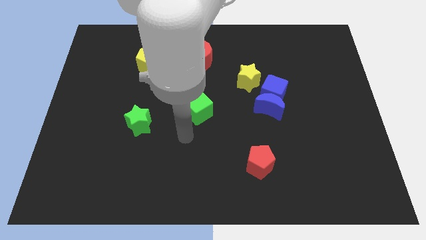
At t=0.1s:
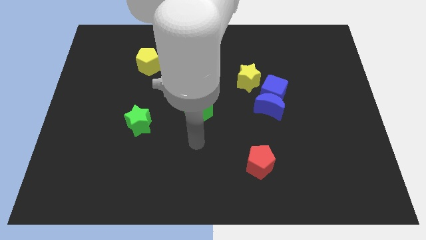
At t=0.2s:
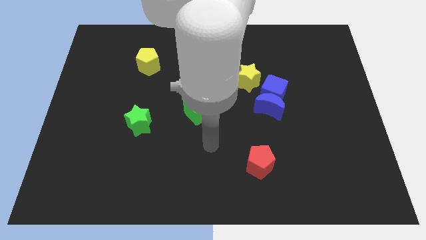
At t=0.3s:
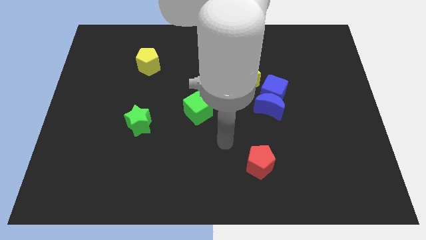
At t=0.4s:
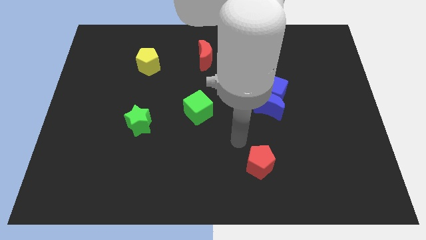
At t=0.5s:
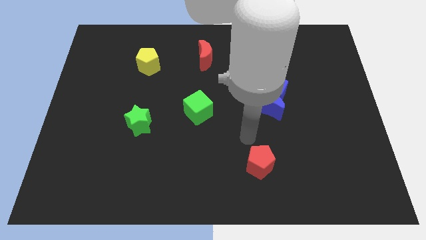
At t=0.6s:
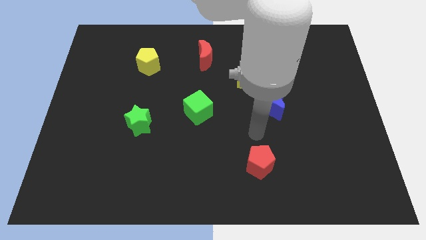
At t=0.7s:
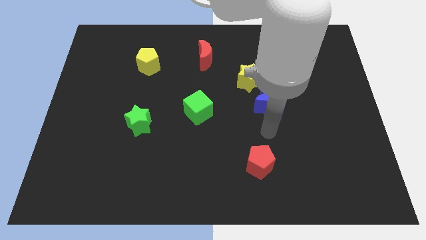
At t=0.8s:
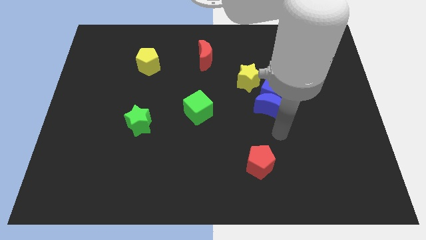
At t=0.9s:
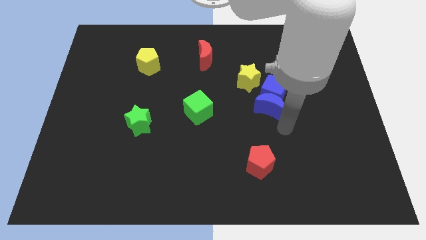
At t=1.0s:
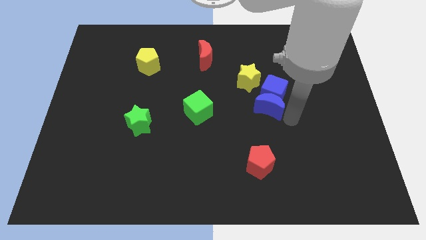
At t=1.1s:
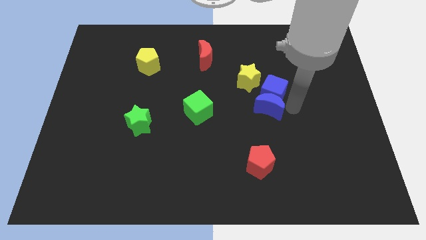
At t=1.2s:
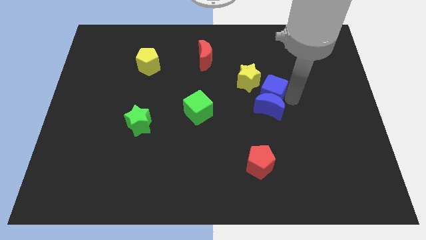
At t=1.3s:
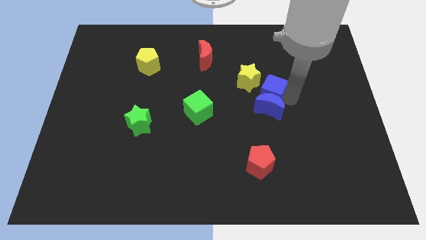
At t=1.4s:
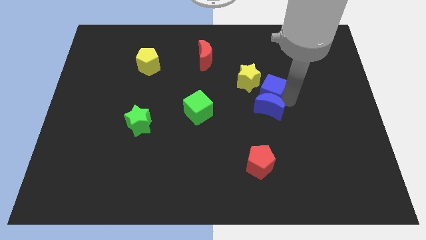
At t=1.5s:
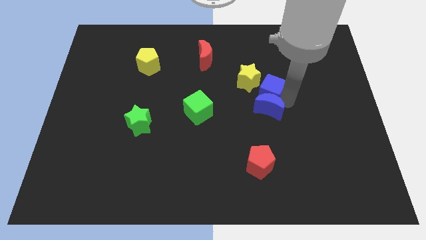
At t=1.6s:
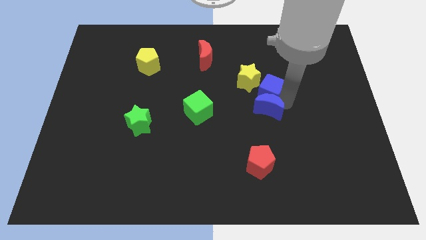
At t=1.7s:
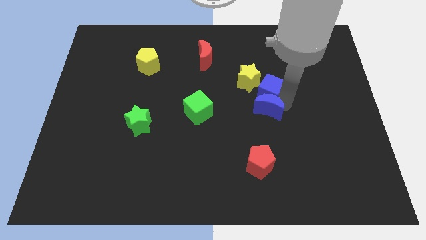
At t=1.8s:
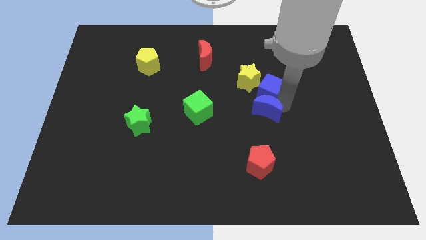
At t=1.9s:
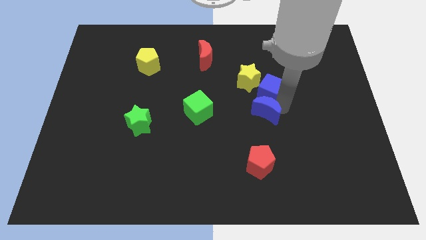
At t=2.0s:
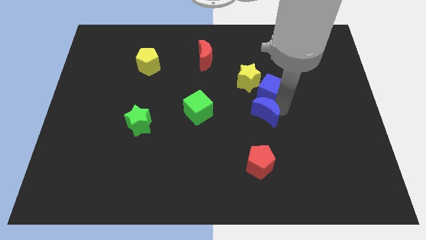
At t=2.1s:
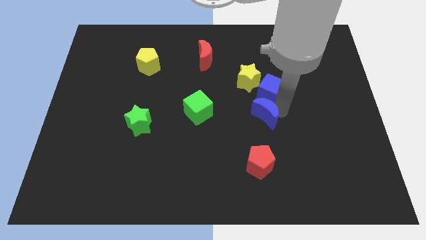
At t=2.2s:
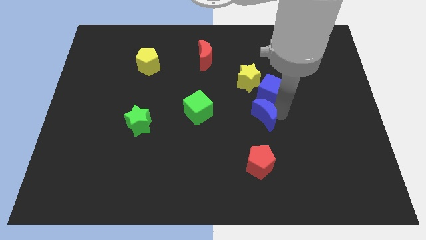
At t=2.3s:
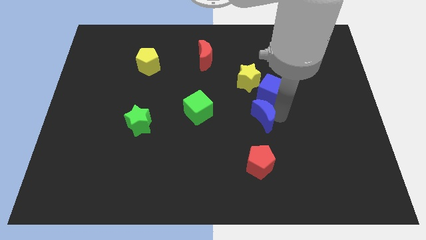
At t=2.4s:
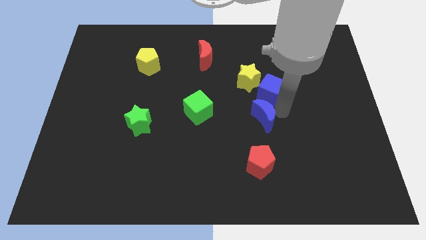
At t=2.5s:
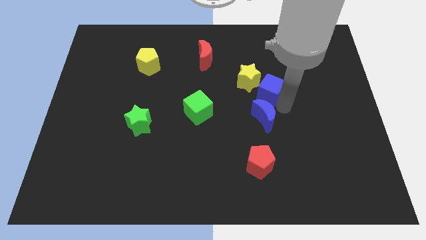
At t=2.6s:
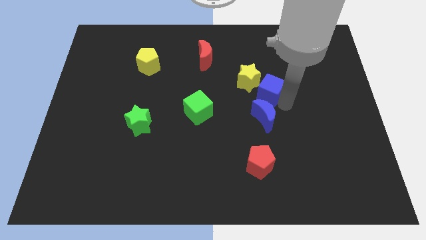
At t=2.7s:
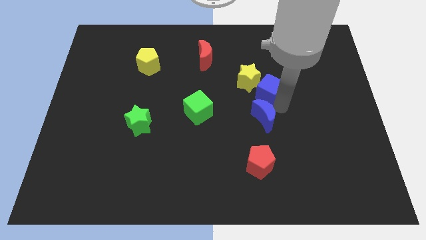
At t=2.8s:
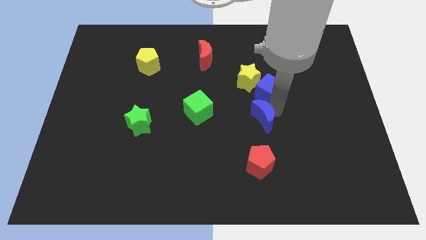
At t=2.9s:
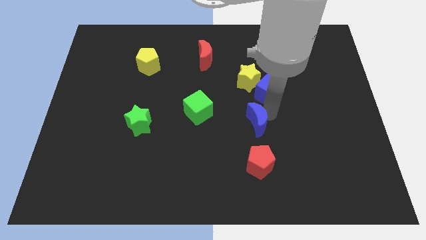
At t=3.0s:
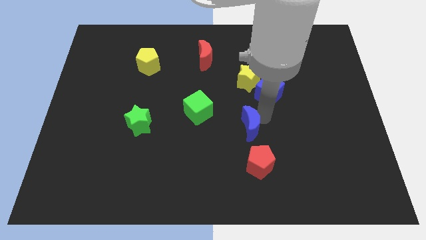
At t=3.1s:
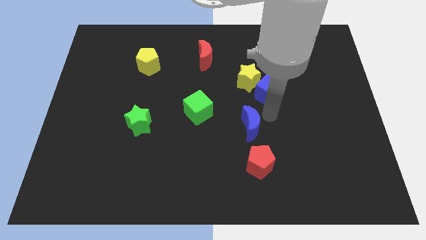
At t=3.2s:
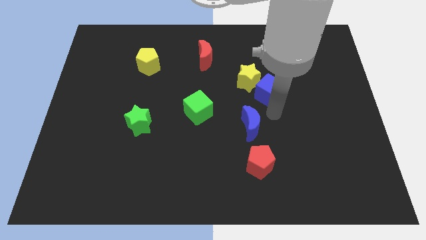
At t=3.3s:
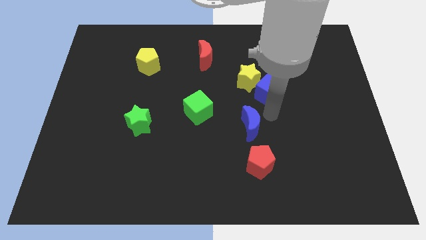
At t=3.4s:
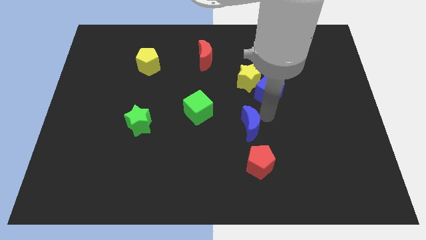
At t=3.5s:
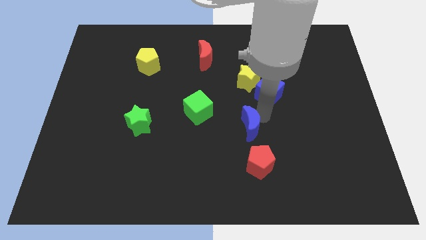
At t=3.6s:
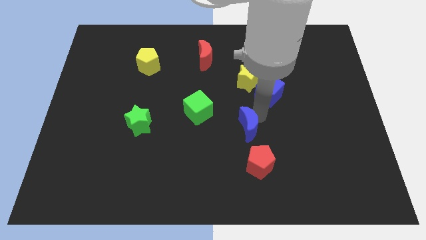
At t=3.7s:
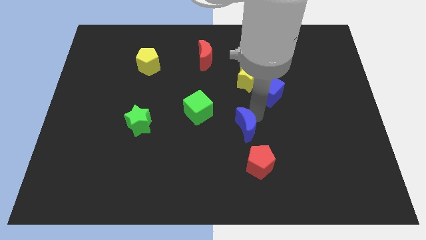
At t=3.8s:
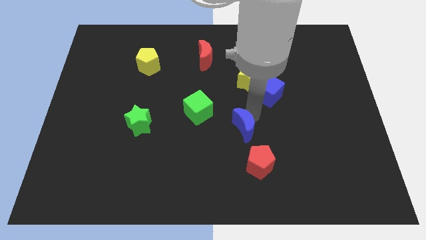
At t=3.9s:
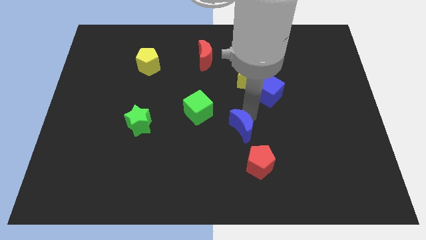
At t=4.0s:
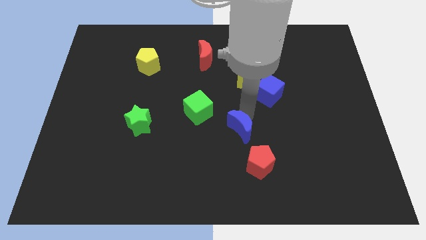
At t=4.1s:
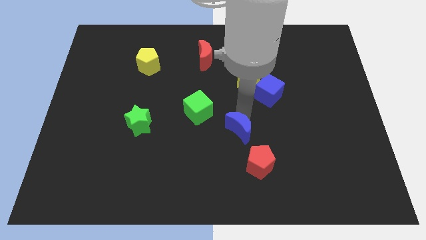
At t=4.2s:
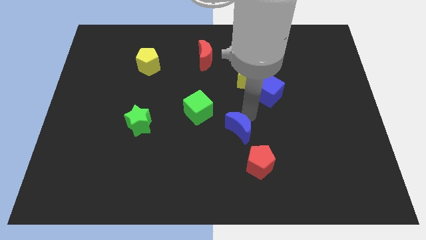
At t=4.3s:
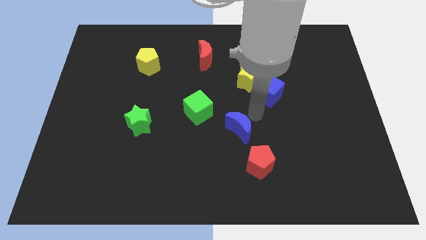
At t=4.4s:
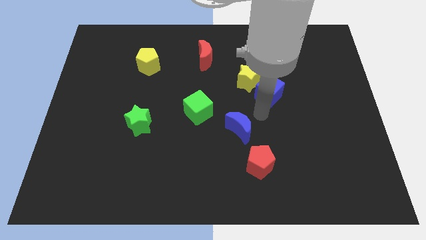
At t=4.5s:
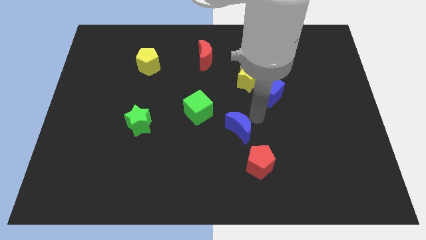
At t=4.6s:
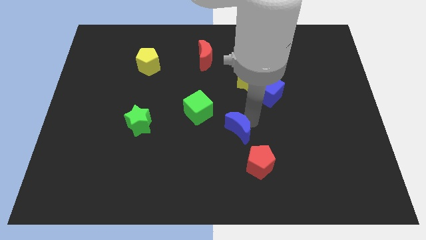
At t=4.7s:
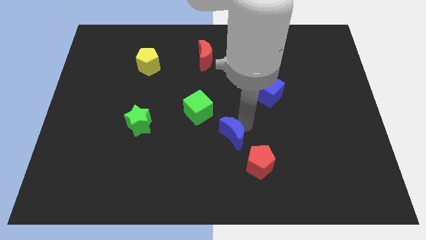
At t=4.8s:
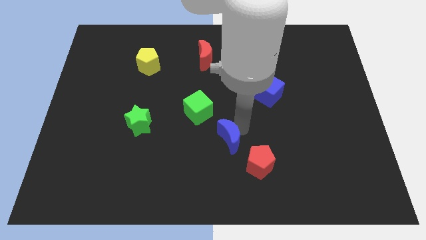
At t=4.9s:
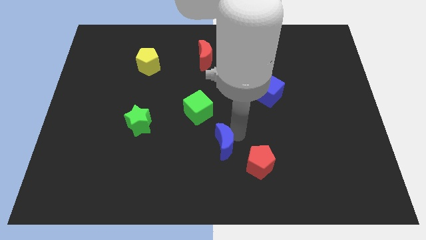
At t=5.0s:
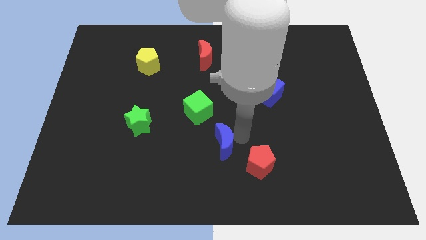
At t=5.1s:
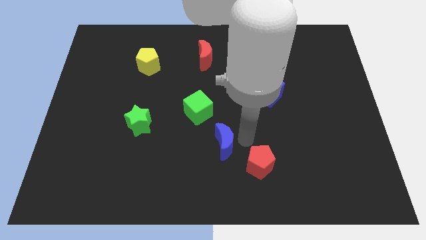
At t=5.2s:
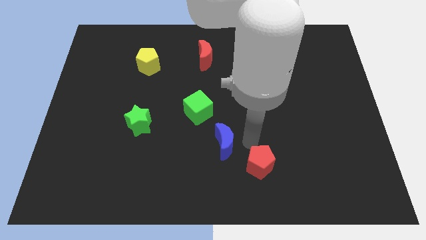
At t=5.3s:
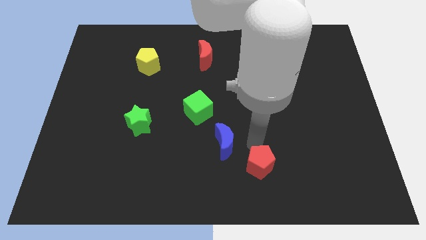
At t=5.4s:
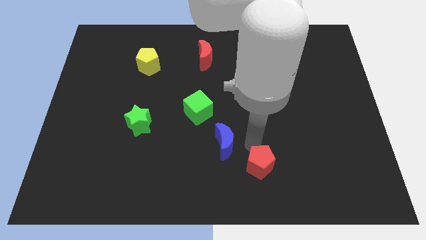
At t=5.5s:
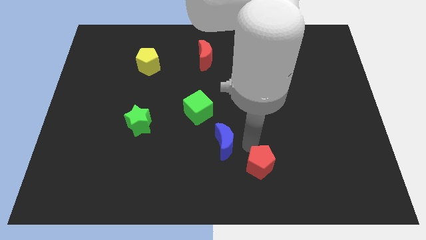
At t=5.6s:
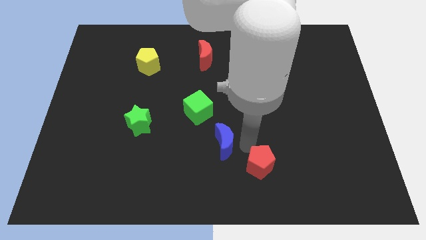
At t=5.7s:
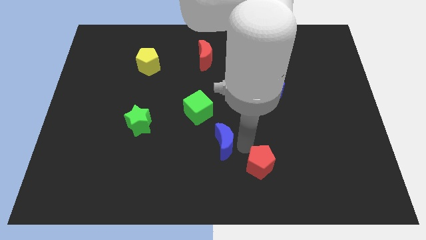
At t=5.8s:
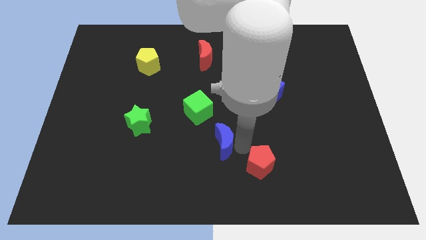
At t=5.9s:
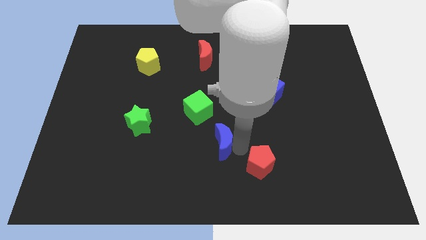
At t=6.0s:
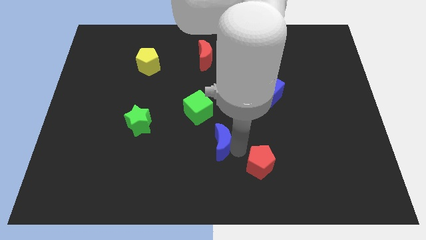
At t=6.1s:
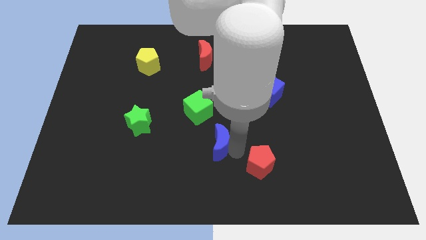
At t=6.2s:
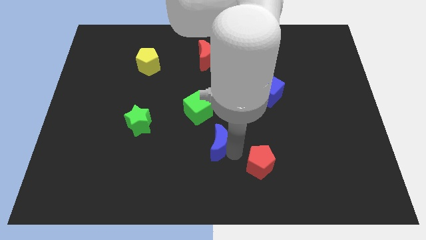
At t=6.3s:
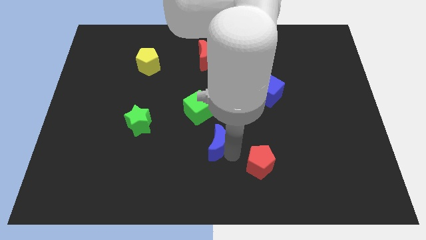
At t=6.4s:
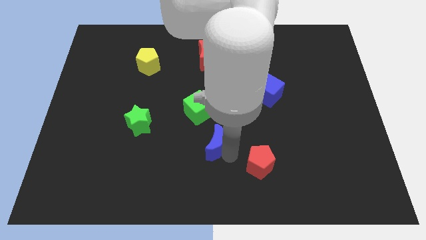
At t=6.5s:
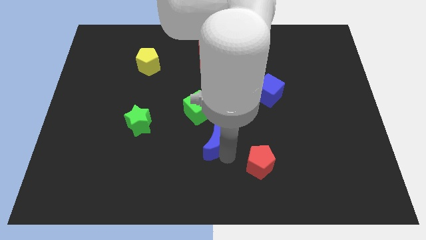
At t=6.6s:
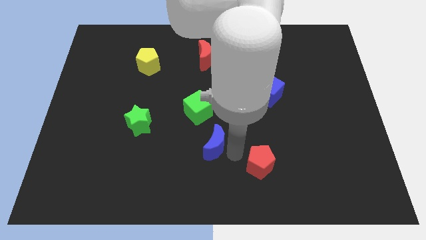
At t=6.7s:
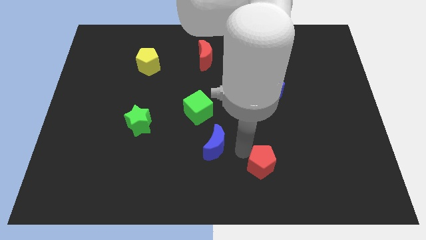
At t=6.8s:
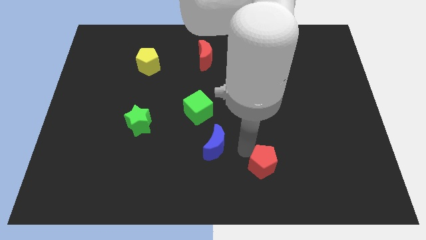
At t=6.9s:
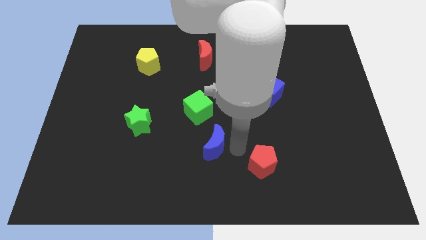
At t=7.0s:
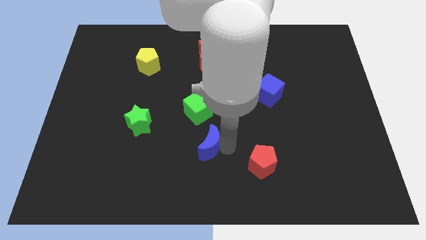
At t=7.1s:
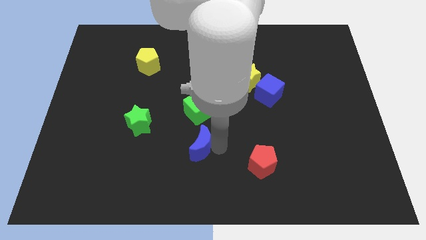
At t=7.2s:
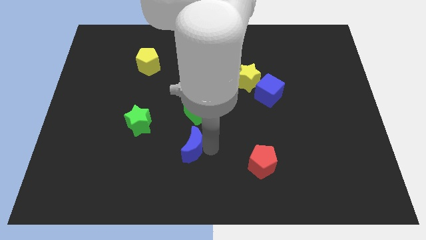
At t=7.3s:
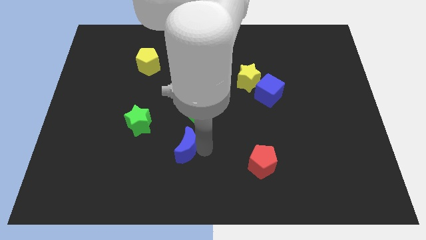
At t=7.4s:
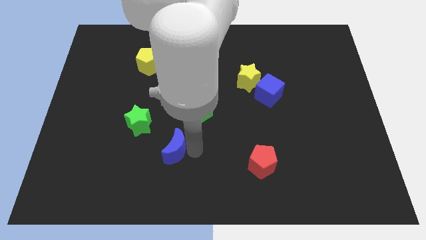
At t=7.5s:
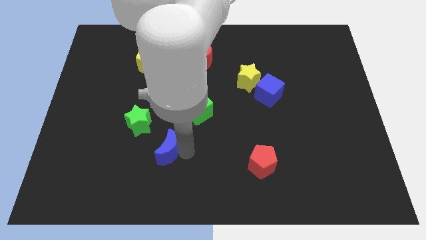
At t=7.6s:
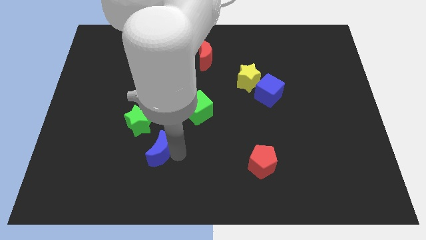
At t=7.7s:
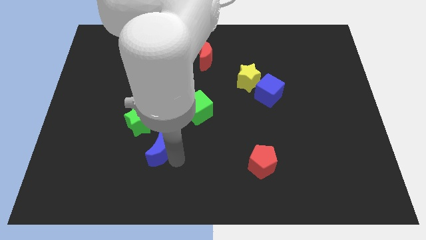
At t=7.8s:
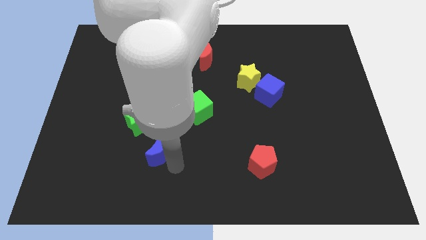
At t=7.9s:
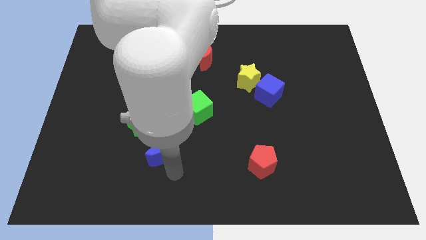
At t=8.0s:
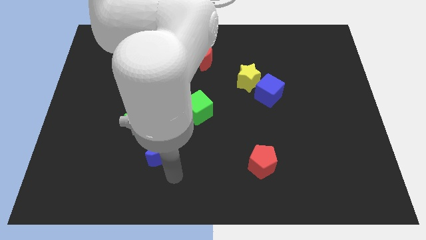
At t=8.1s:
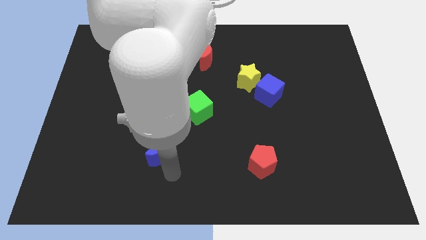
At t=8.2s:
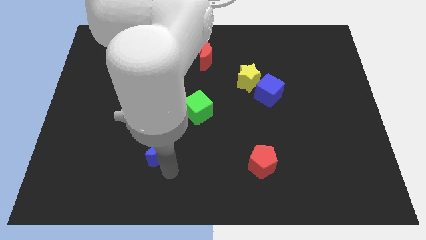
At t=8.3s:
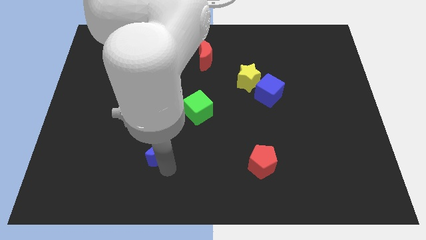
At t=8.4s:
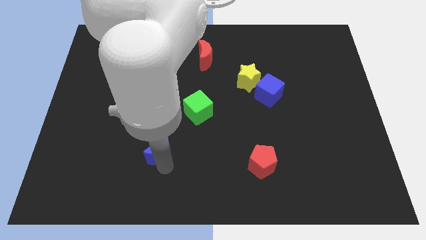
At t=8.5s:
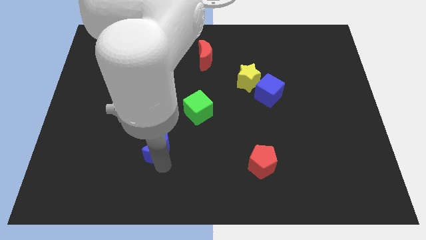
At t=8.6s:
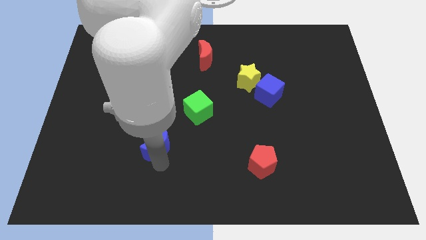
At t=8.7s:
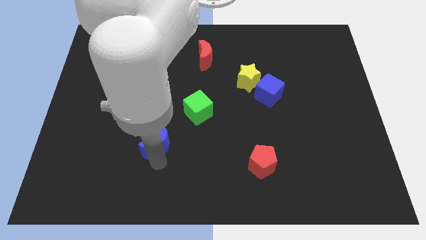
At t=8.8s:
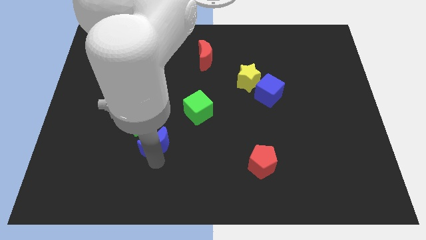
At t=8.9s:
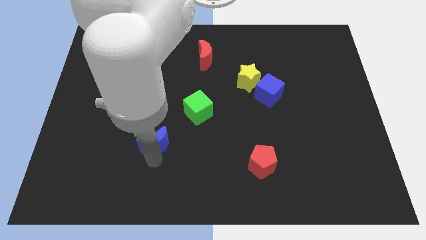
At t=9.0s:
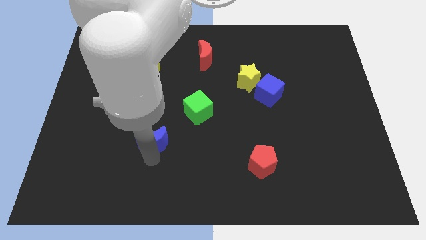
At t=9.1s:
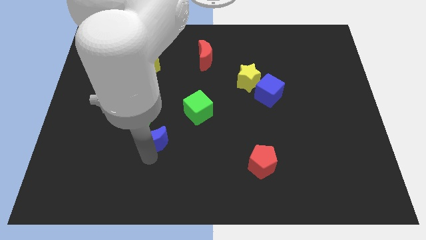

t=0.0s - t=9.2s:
slide the blue moon close to the green star
